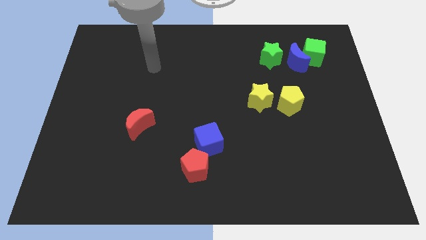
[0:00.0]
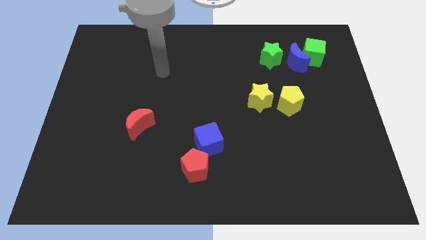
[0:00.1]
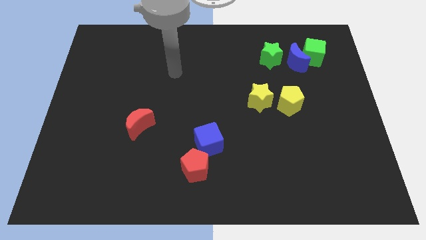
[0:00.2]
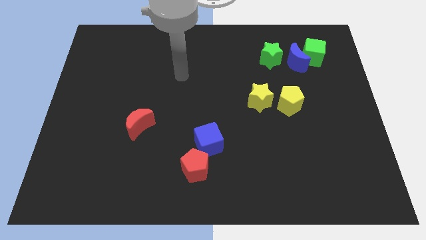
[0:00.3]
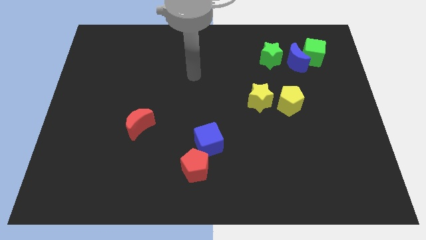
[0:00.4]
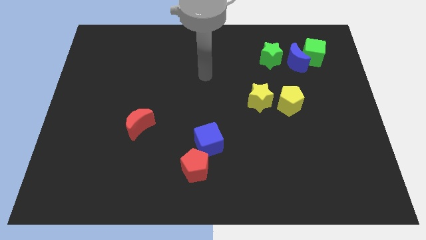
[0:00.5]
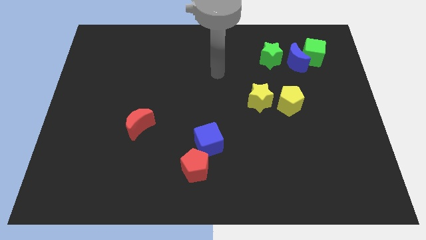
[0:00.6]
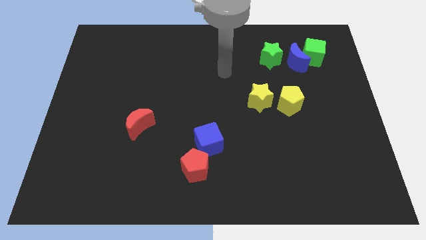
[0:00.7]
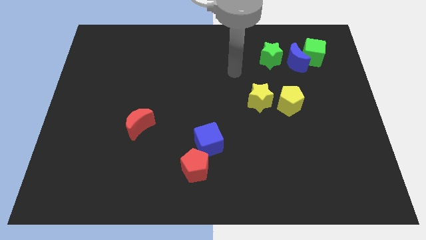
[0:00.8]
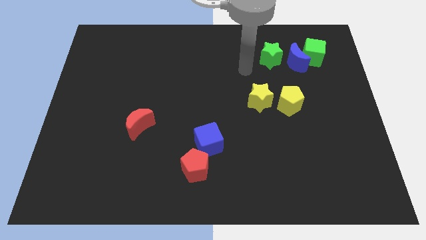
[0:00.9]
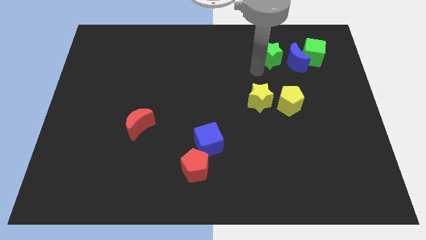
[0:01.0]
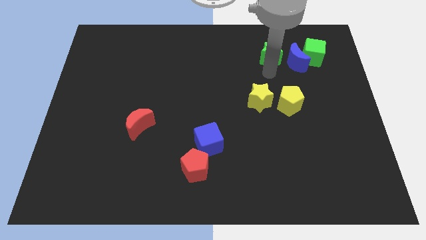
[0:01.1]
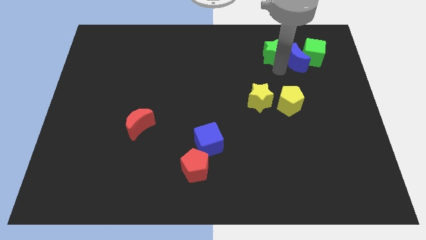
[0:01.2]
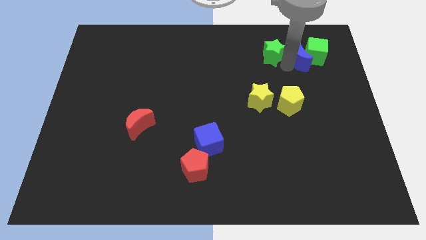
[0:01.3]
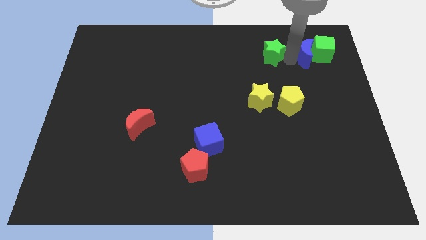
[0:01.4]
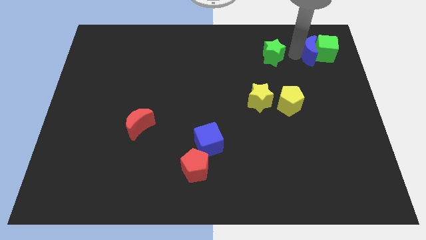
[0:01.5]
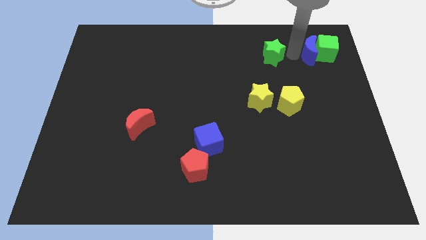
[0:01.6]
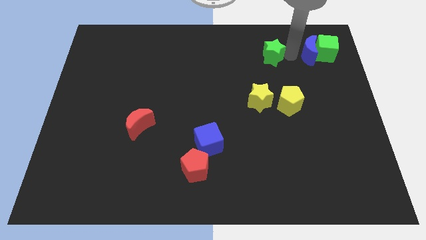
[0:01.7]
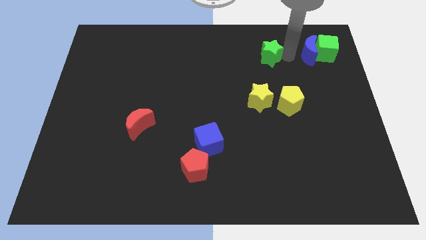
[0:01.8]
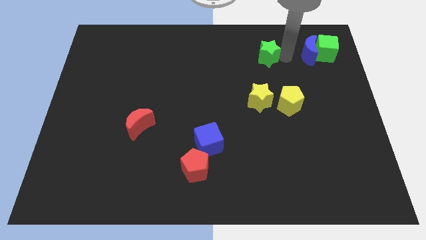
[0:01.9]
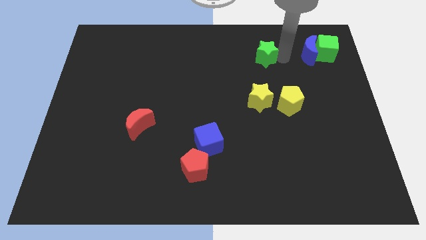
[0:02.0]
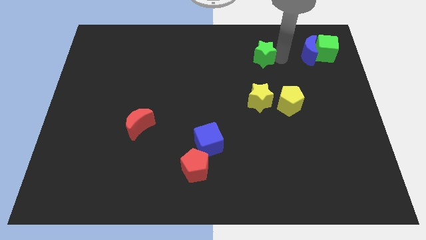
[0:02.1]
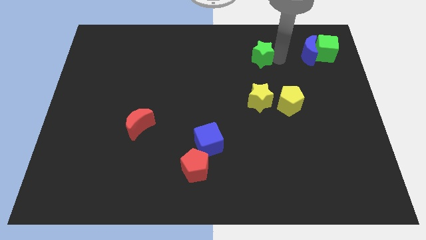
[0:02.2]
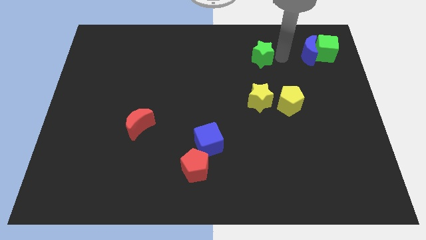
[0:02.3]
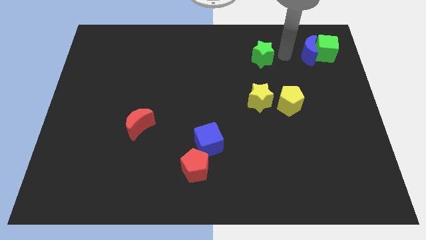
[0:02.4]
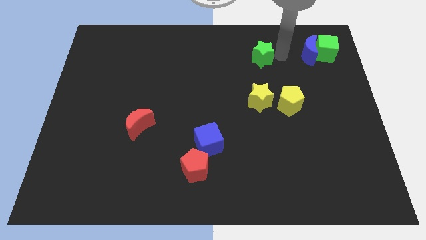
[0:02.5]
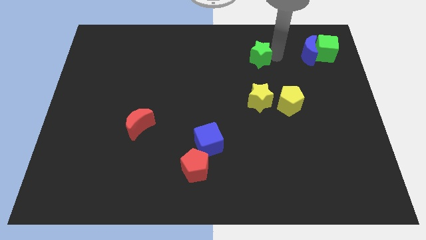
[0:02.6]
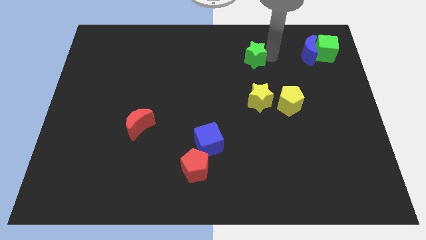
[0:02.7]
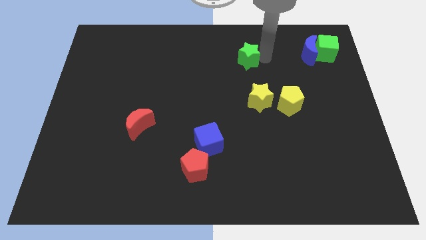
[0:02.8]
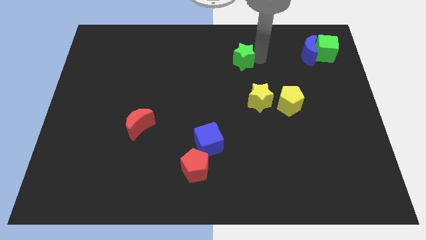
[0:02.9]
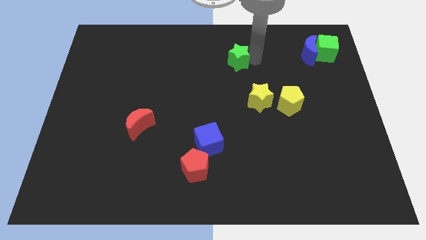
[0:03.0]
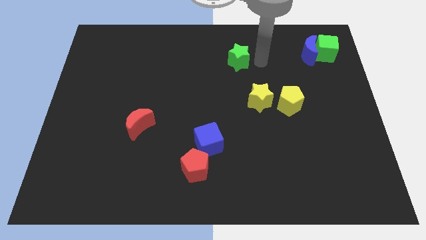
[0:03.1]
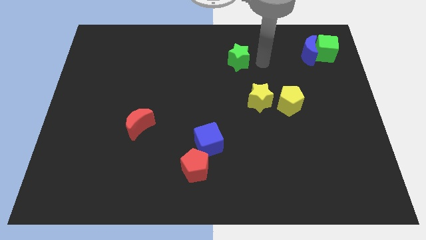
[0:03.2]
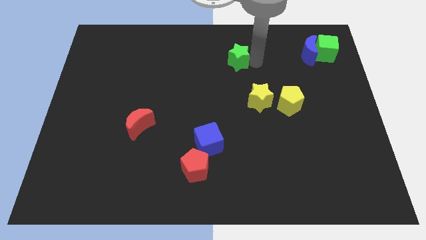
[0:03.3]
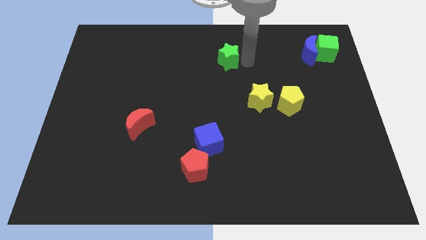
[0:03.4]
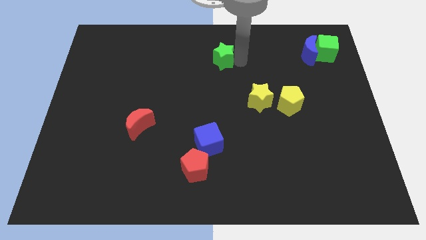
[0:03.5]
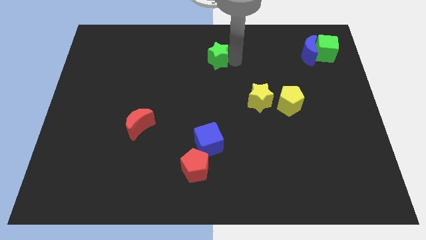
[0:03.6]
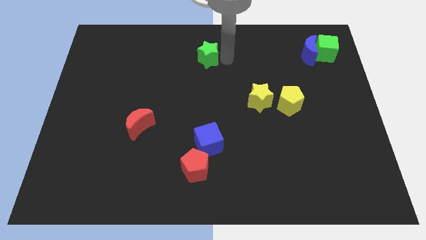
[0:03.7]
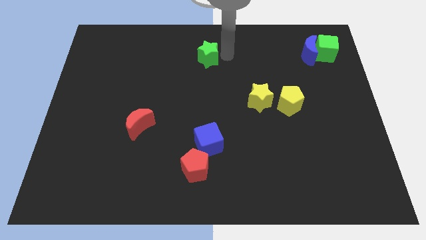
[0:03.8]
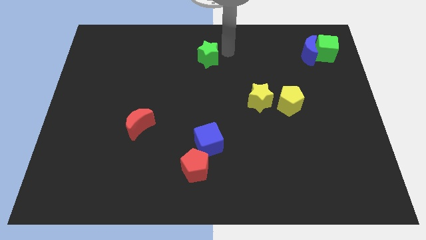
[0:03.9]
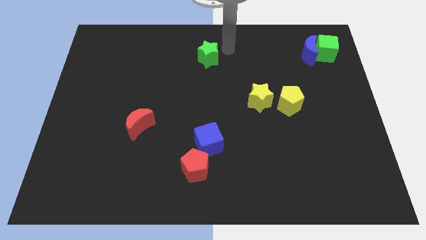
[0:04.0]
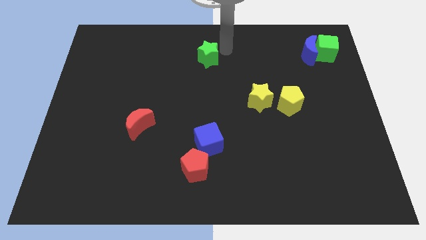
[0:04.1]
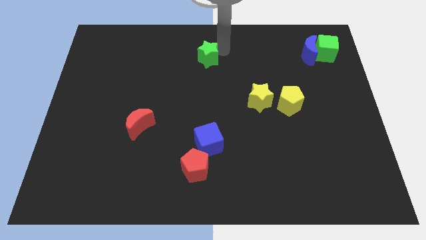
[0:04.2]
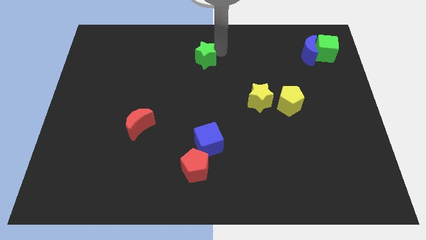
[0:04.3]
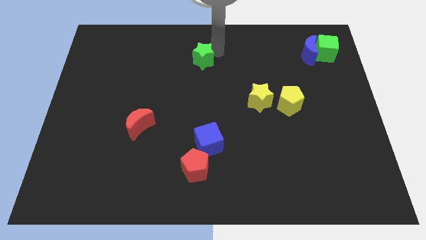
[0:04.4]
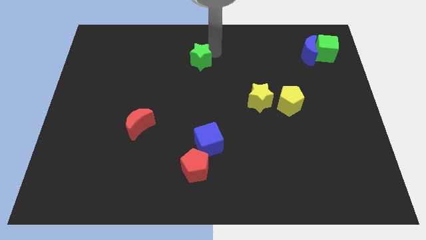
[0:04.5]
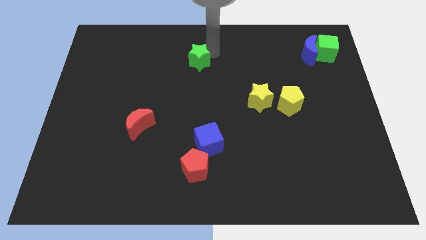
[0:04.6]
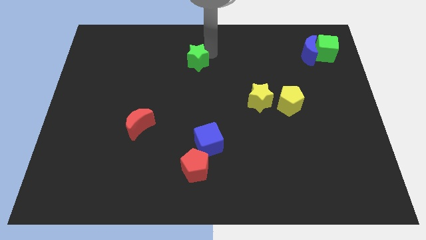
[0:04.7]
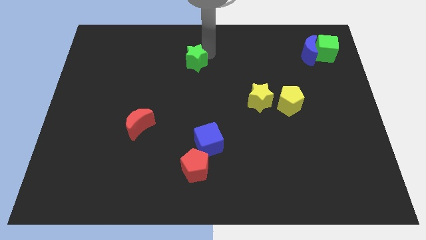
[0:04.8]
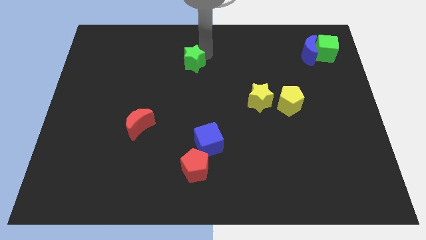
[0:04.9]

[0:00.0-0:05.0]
move the green star left

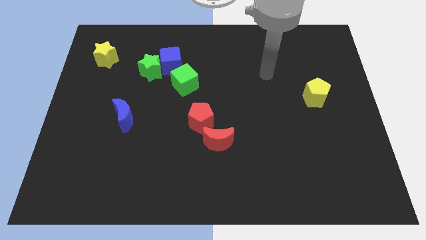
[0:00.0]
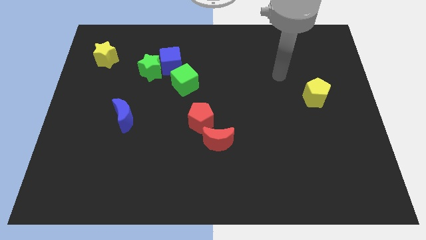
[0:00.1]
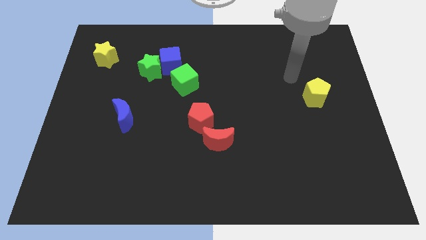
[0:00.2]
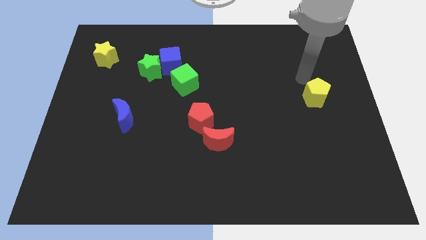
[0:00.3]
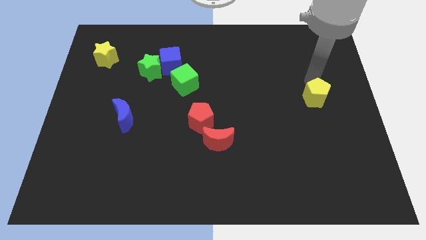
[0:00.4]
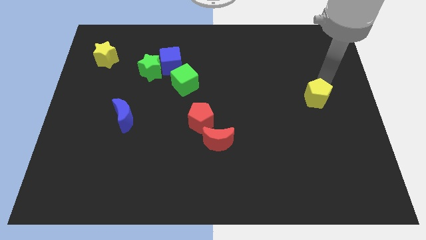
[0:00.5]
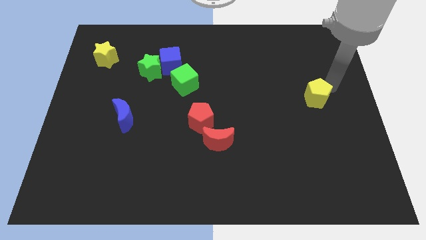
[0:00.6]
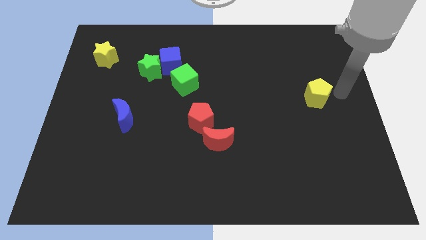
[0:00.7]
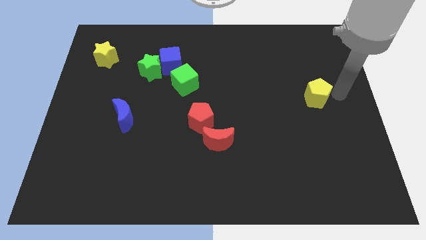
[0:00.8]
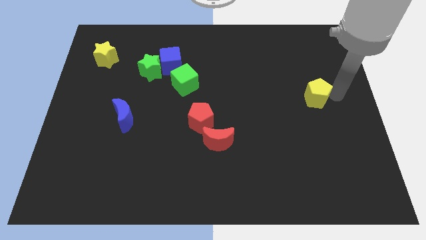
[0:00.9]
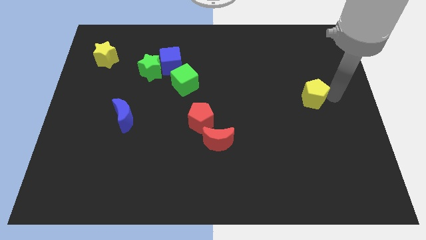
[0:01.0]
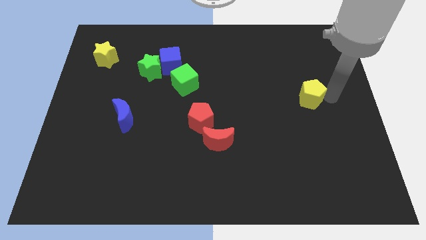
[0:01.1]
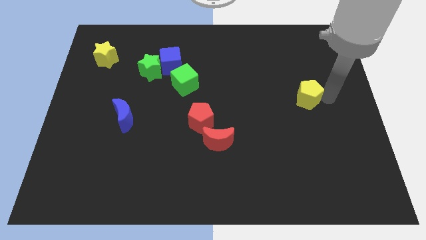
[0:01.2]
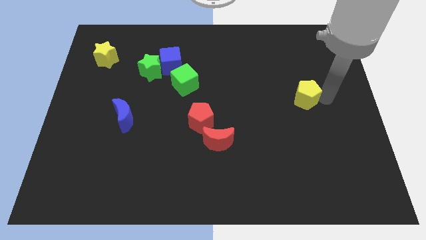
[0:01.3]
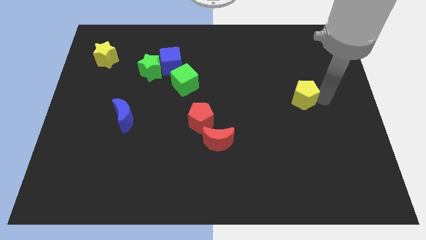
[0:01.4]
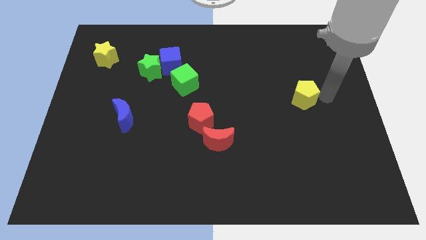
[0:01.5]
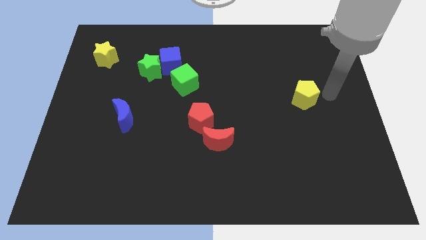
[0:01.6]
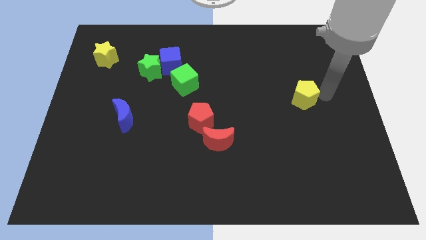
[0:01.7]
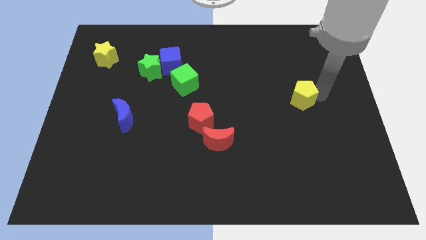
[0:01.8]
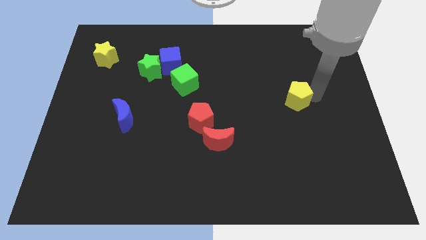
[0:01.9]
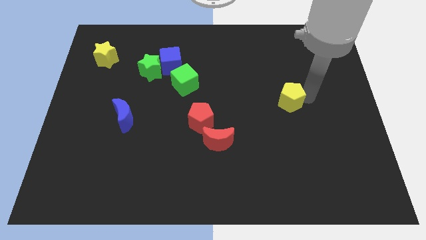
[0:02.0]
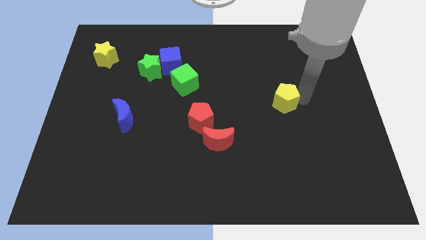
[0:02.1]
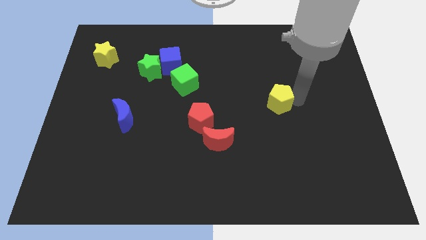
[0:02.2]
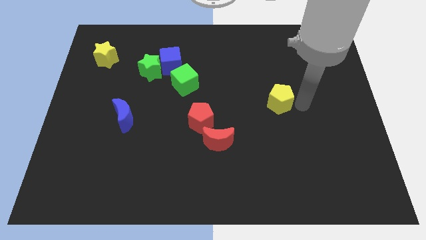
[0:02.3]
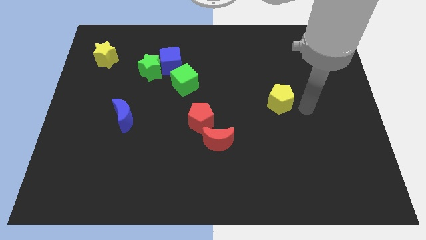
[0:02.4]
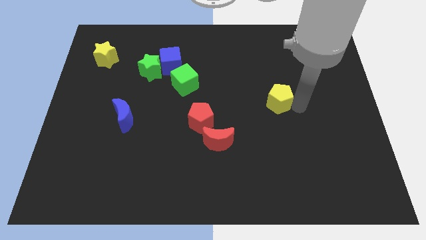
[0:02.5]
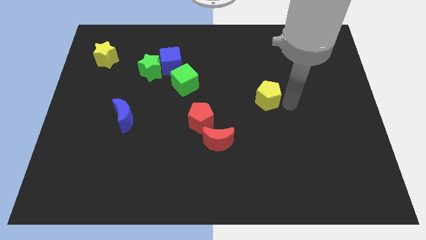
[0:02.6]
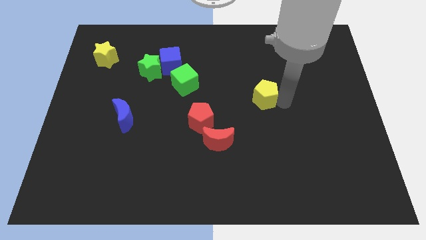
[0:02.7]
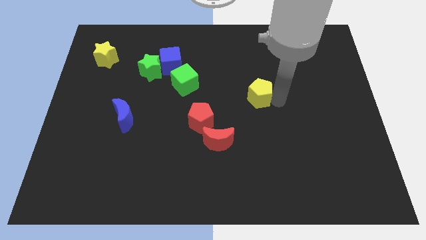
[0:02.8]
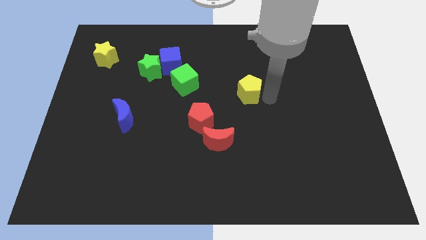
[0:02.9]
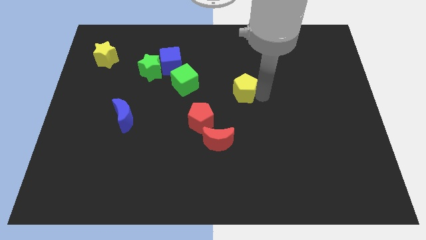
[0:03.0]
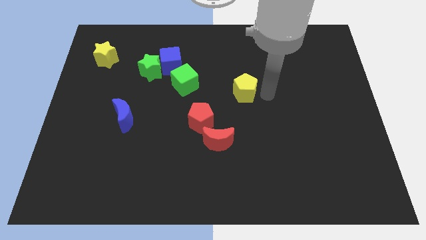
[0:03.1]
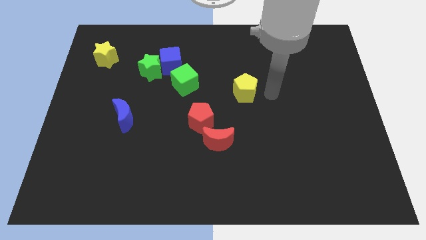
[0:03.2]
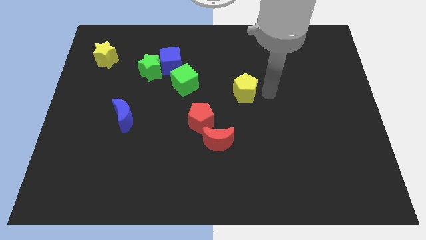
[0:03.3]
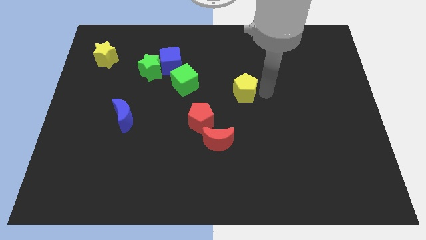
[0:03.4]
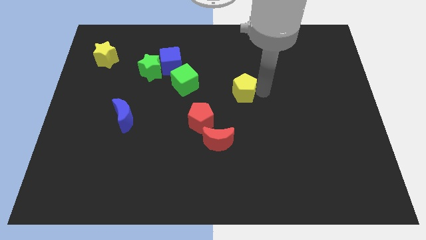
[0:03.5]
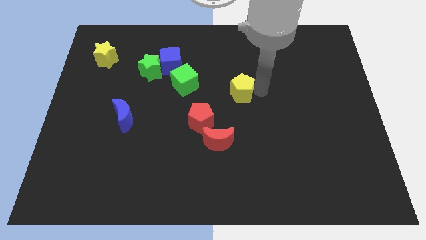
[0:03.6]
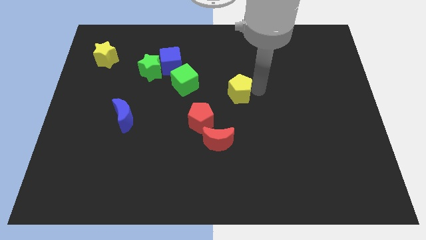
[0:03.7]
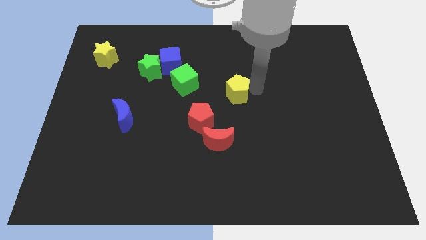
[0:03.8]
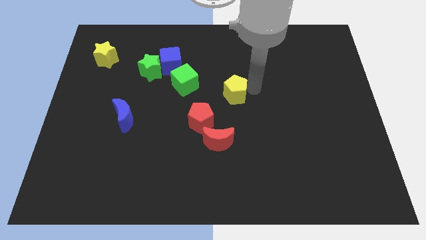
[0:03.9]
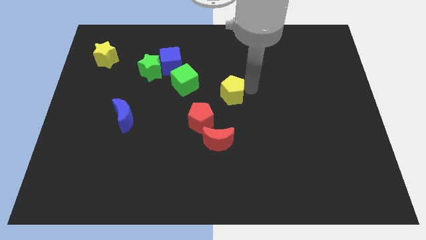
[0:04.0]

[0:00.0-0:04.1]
move the yellow pentagon left
